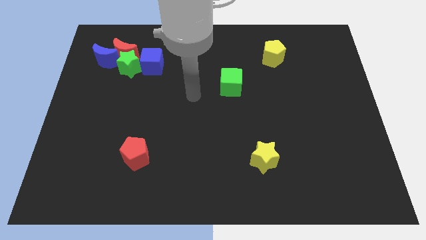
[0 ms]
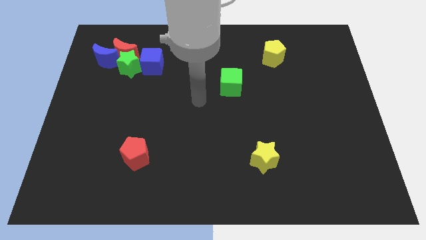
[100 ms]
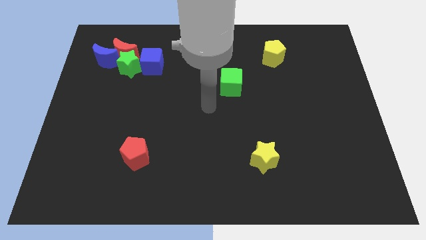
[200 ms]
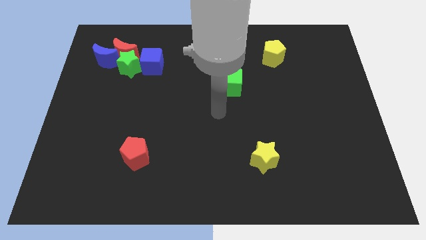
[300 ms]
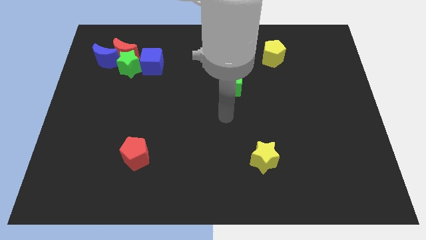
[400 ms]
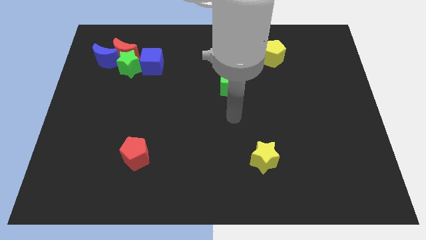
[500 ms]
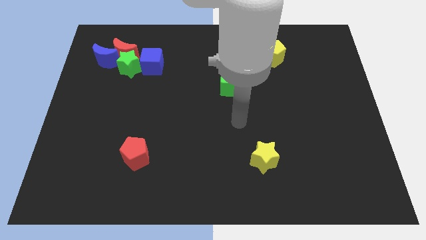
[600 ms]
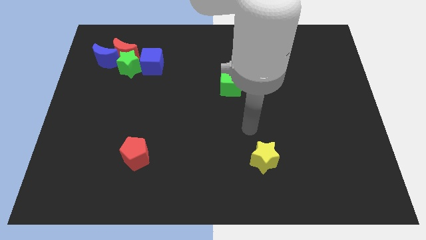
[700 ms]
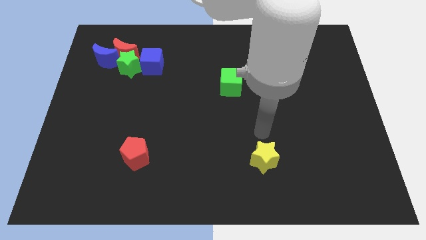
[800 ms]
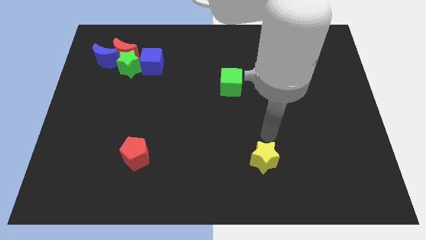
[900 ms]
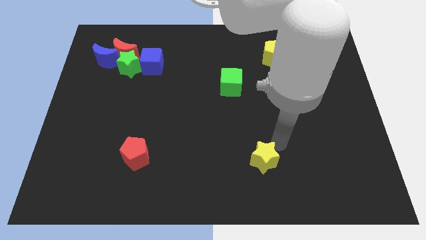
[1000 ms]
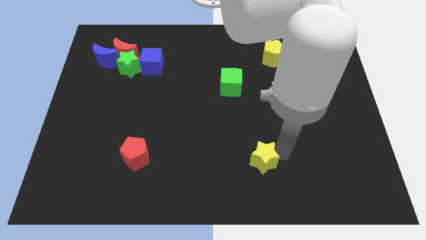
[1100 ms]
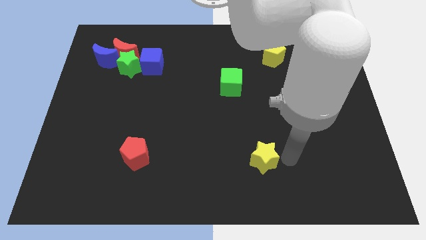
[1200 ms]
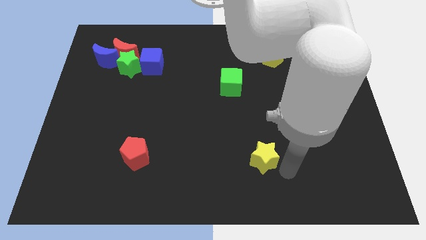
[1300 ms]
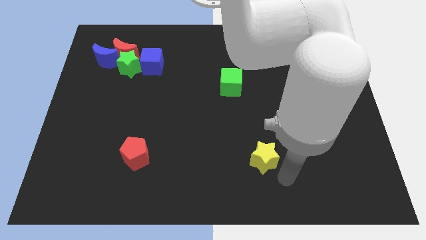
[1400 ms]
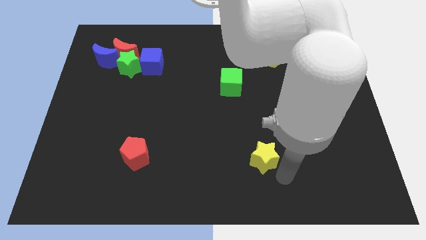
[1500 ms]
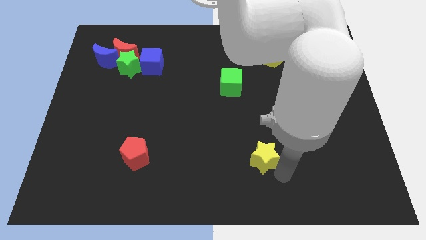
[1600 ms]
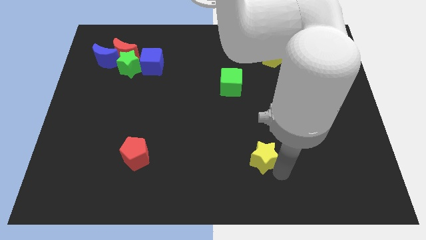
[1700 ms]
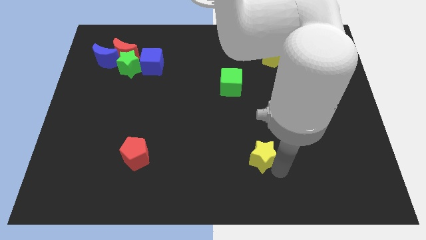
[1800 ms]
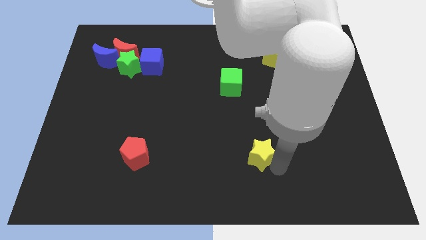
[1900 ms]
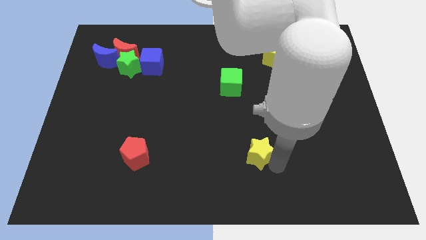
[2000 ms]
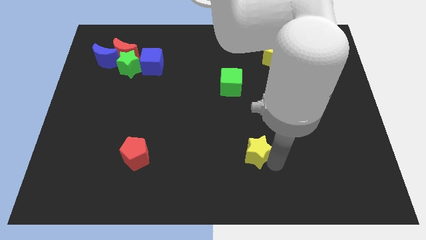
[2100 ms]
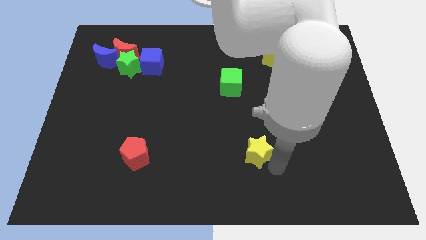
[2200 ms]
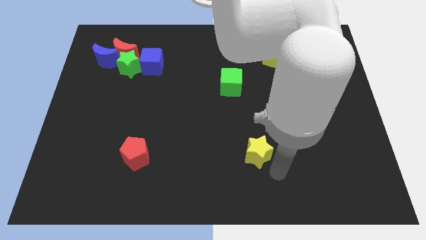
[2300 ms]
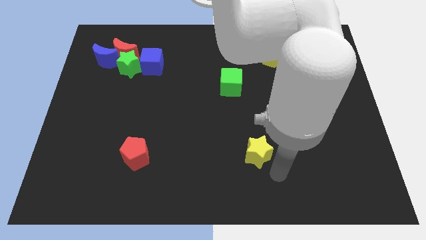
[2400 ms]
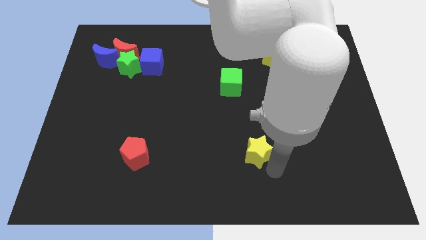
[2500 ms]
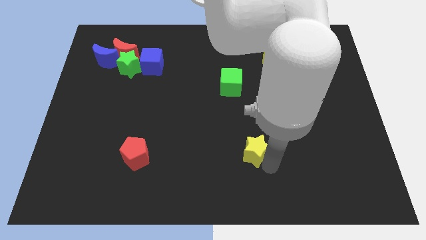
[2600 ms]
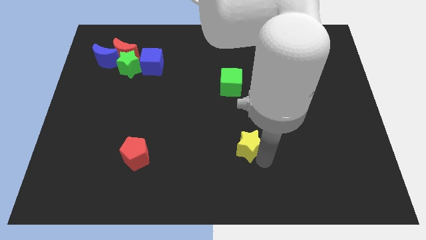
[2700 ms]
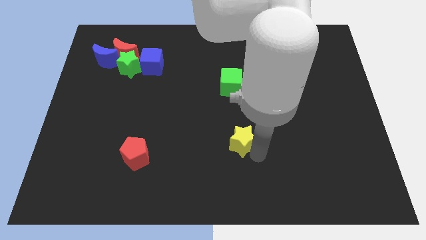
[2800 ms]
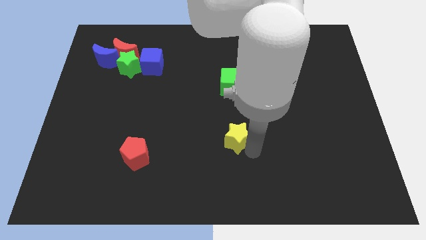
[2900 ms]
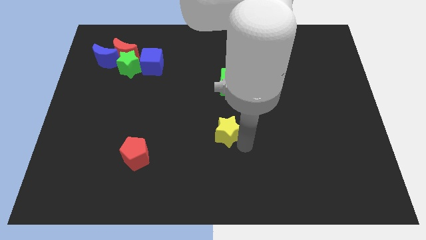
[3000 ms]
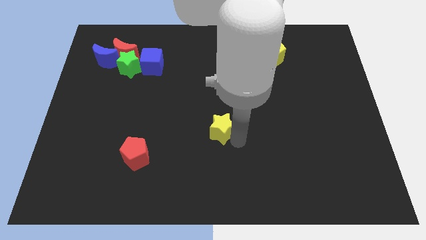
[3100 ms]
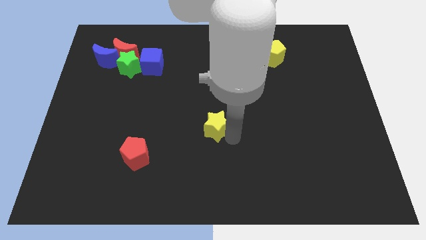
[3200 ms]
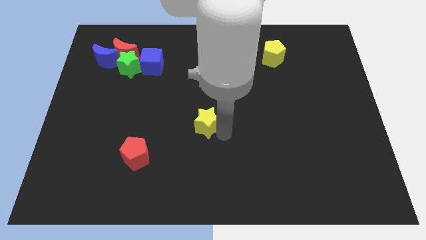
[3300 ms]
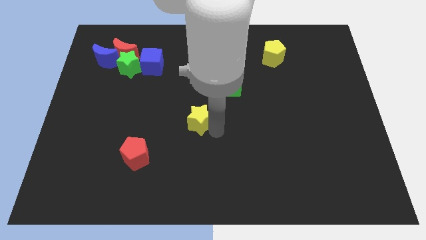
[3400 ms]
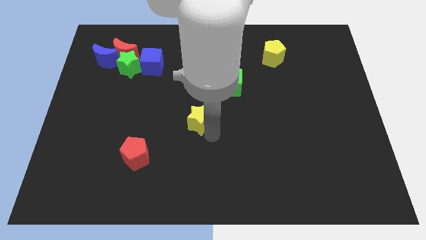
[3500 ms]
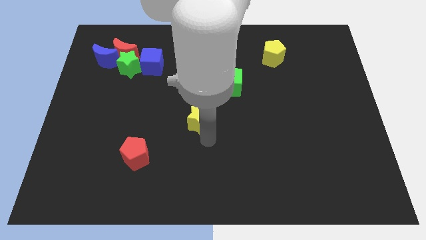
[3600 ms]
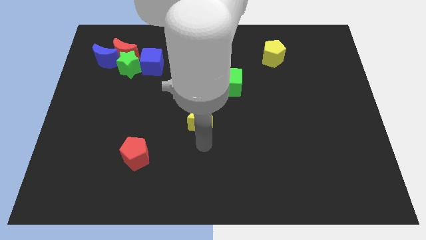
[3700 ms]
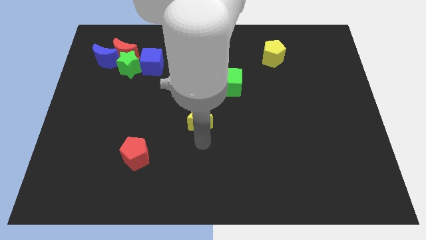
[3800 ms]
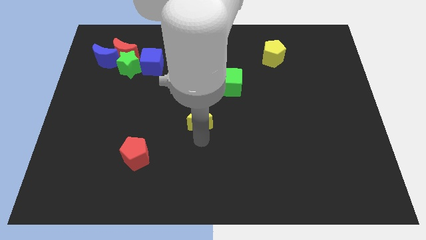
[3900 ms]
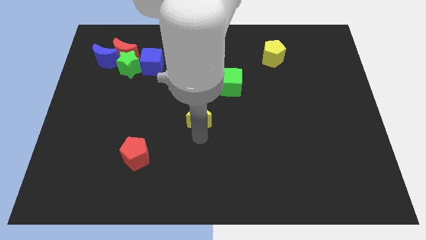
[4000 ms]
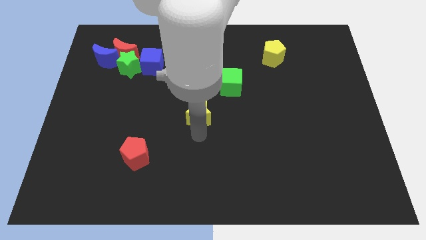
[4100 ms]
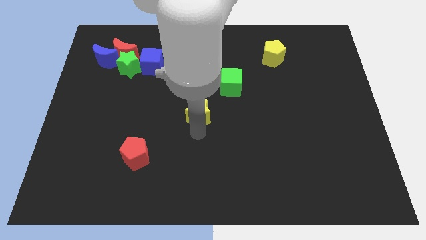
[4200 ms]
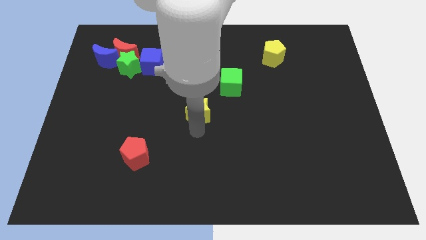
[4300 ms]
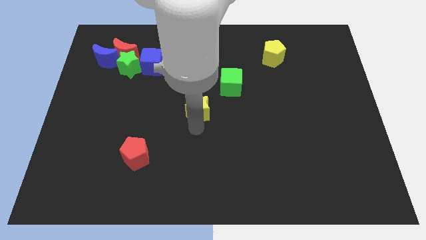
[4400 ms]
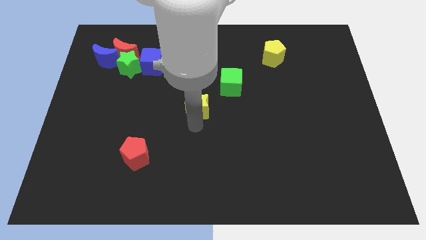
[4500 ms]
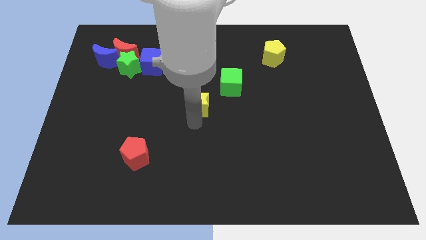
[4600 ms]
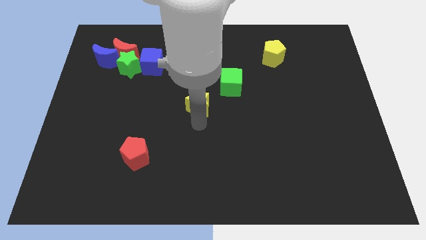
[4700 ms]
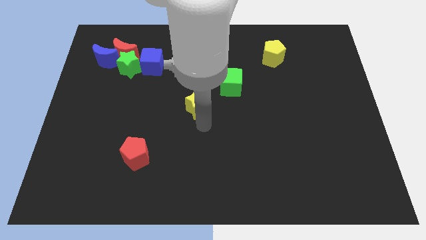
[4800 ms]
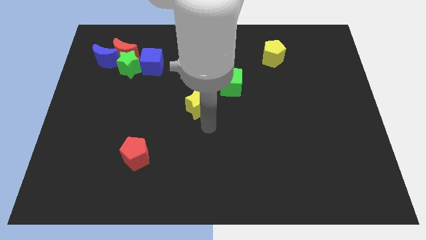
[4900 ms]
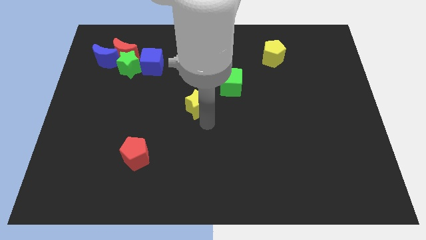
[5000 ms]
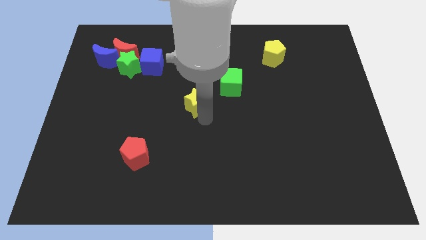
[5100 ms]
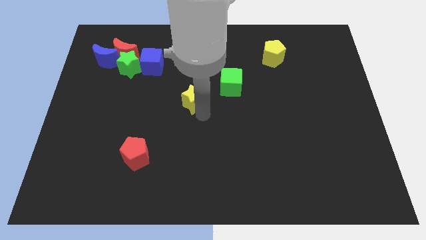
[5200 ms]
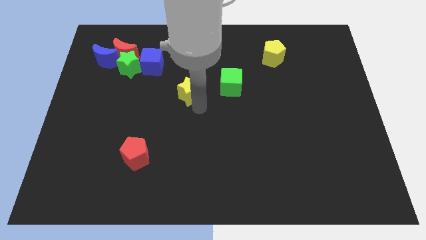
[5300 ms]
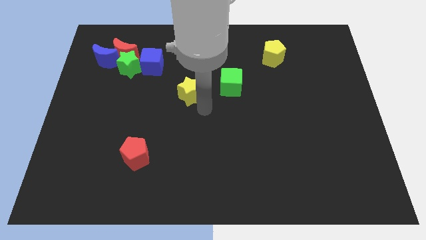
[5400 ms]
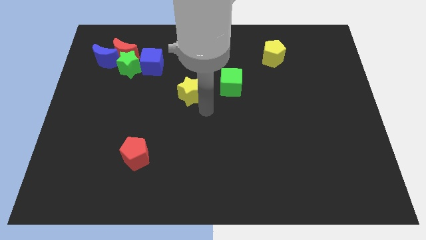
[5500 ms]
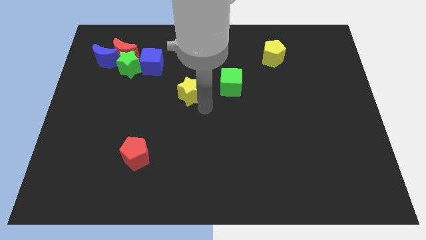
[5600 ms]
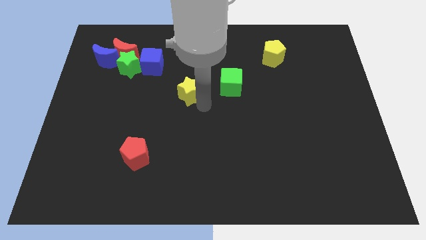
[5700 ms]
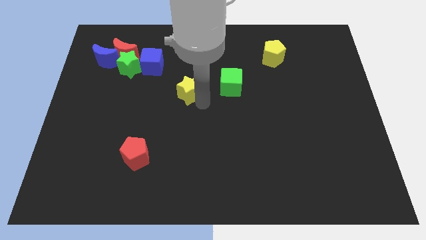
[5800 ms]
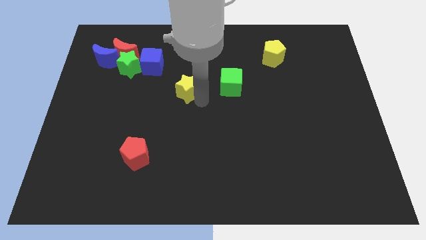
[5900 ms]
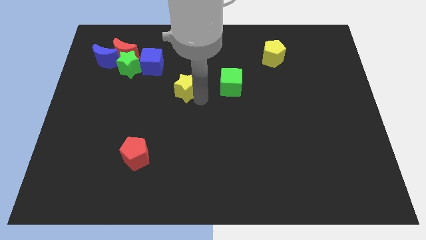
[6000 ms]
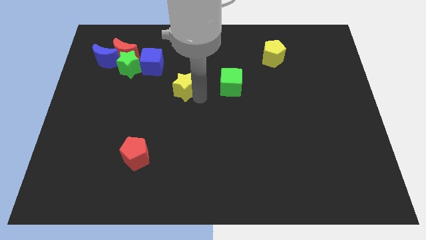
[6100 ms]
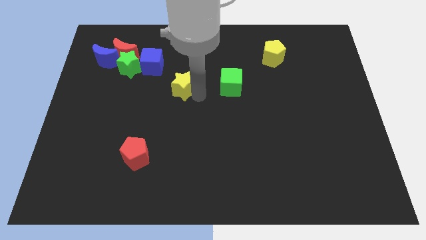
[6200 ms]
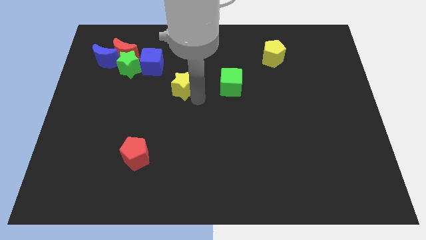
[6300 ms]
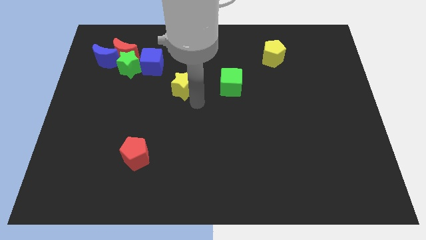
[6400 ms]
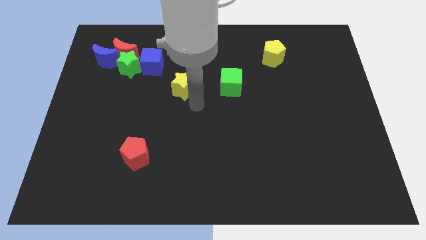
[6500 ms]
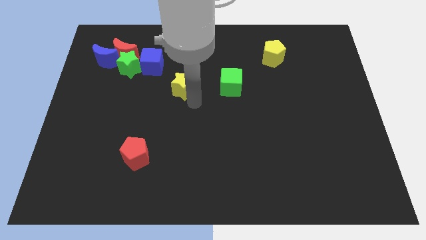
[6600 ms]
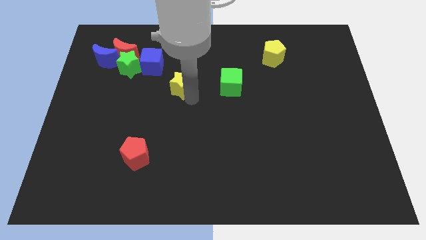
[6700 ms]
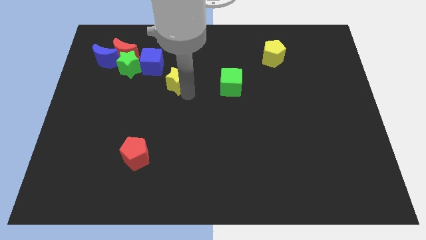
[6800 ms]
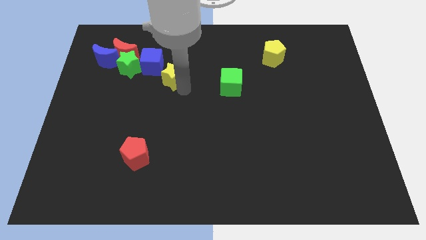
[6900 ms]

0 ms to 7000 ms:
slide the yellow star to the right of the green star

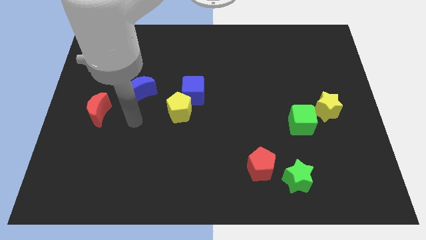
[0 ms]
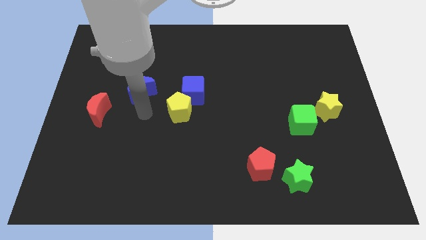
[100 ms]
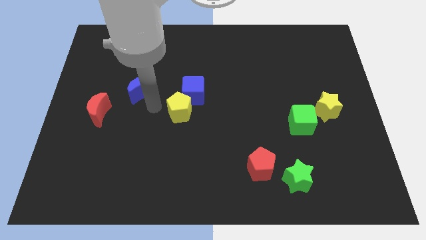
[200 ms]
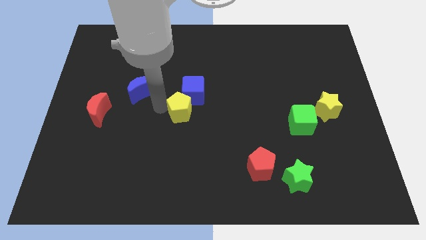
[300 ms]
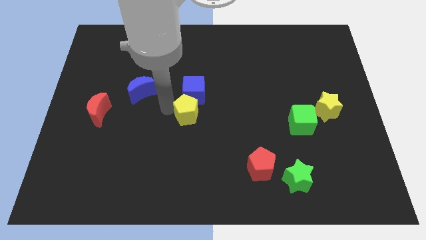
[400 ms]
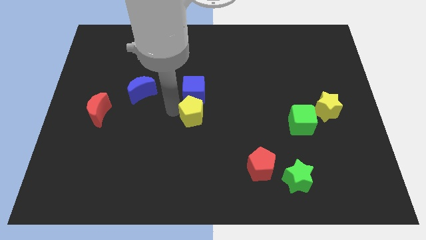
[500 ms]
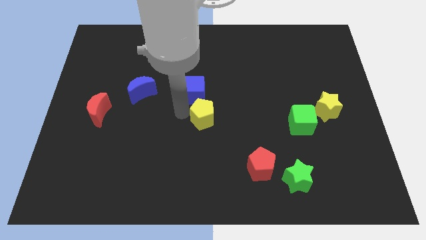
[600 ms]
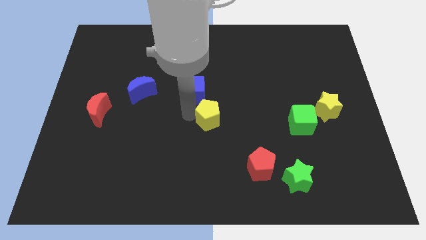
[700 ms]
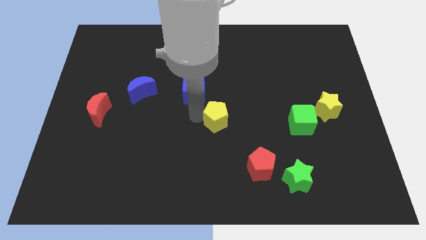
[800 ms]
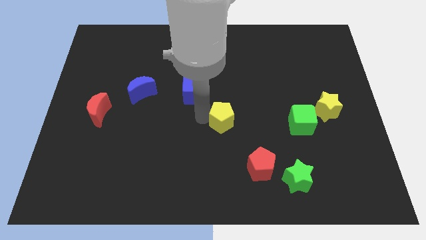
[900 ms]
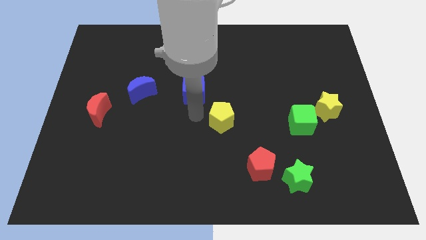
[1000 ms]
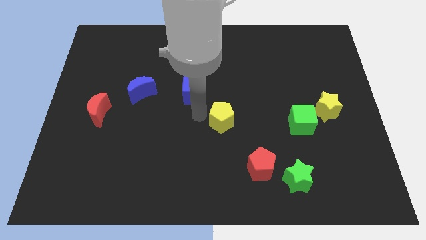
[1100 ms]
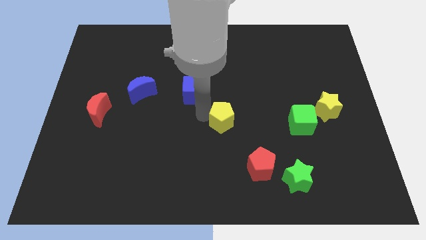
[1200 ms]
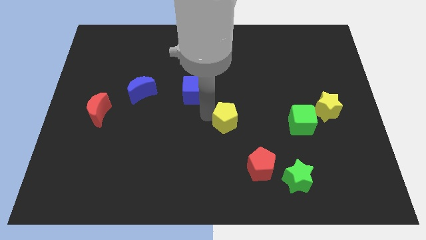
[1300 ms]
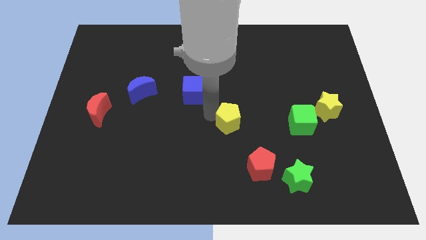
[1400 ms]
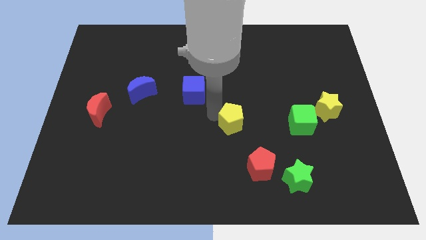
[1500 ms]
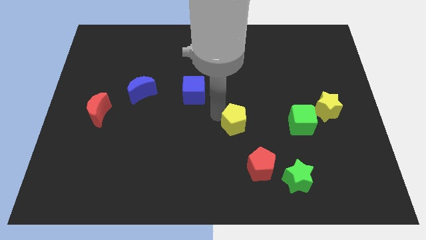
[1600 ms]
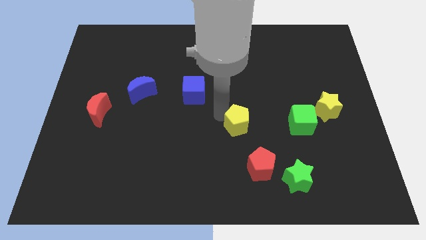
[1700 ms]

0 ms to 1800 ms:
slide the yellow pentagon to the top of the red pentagon
